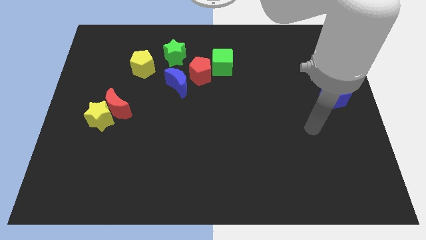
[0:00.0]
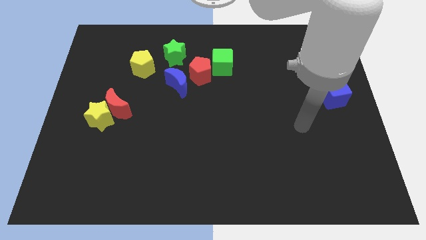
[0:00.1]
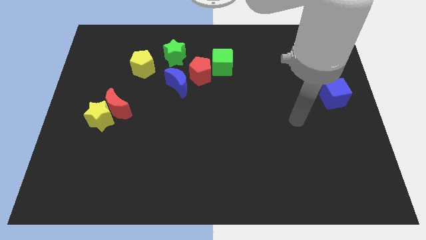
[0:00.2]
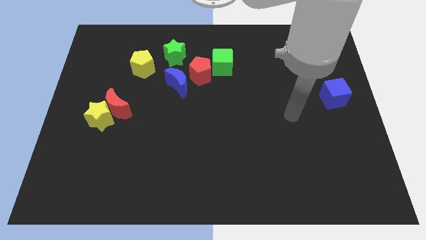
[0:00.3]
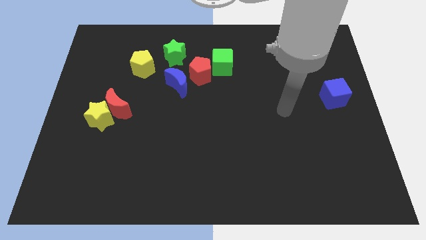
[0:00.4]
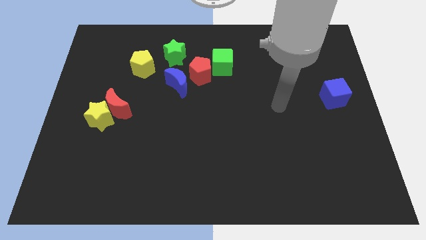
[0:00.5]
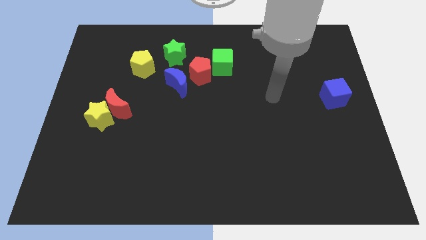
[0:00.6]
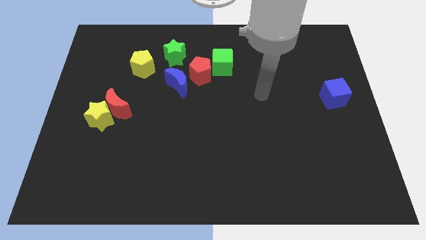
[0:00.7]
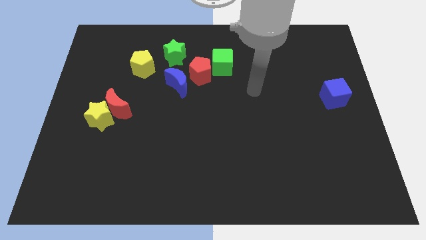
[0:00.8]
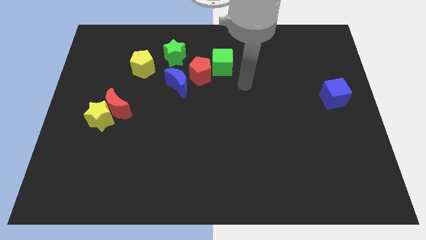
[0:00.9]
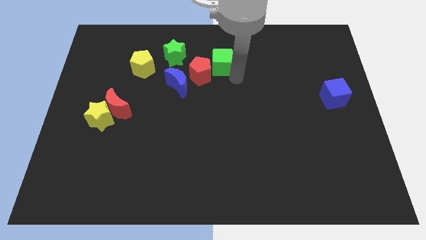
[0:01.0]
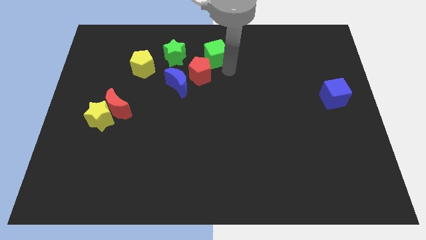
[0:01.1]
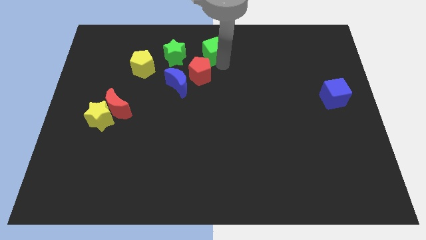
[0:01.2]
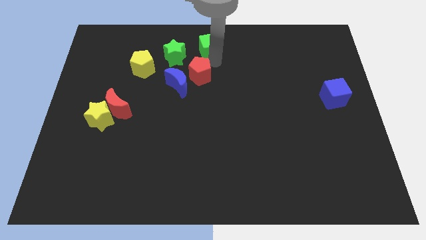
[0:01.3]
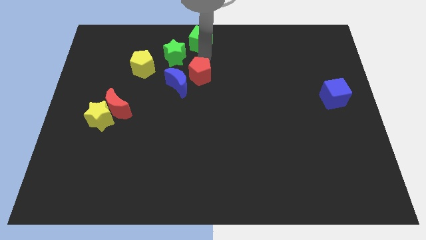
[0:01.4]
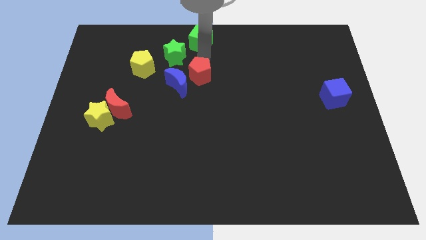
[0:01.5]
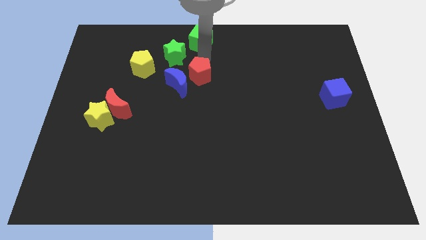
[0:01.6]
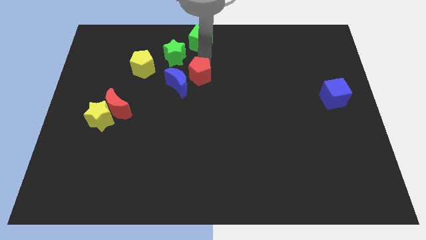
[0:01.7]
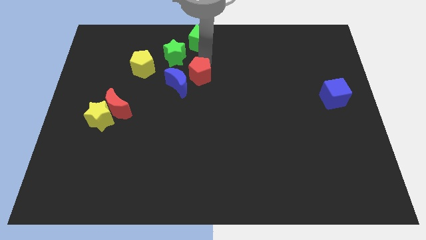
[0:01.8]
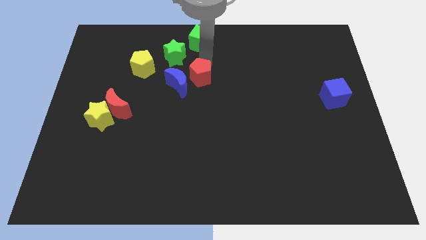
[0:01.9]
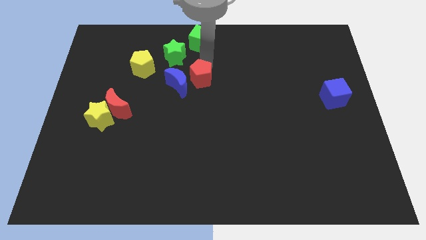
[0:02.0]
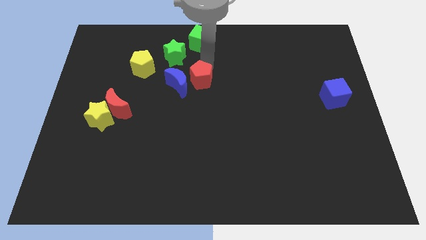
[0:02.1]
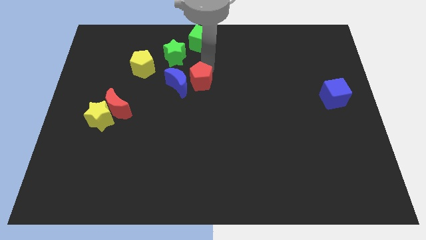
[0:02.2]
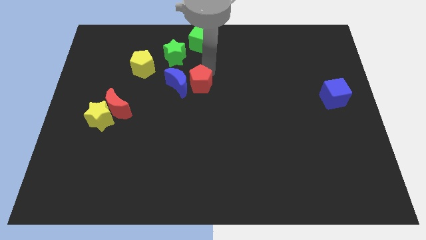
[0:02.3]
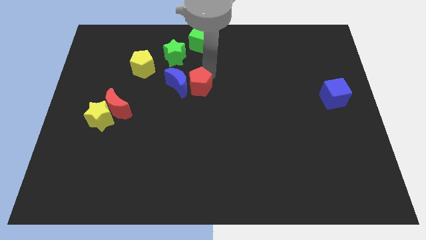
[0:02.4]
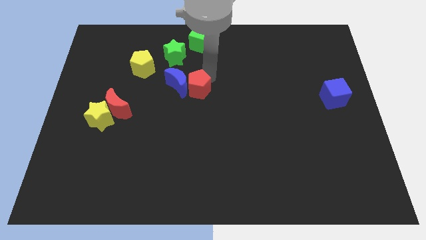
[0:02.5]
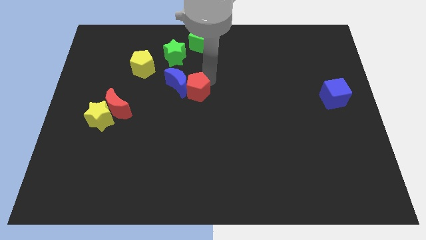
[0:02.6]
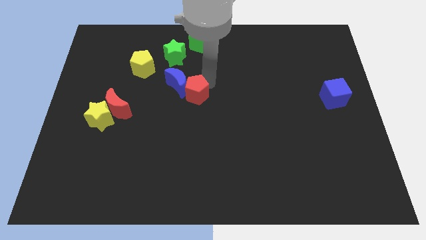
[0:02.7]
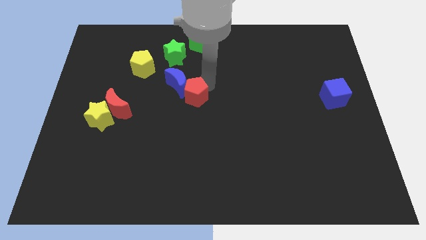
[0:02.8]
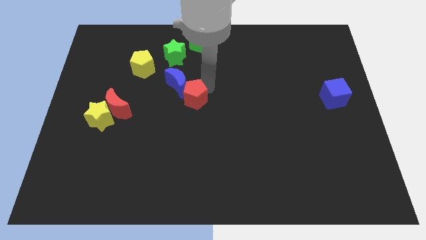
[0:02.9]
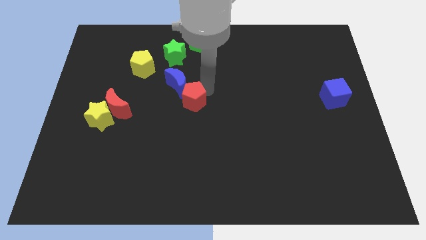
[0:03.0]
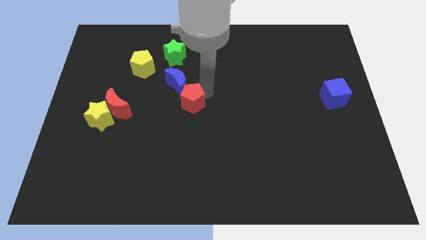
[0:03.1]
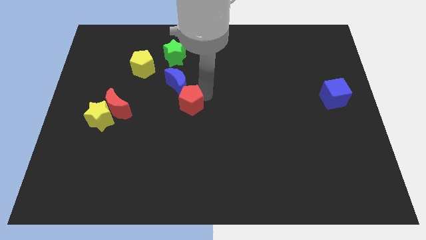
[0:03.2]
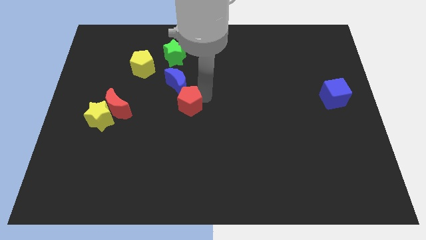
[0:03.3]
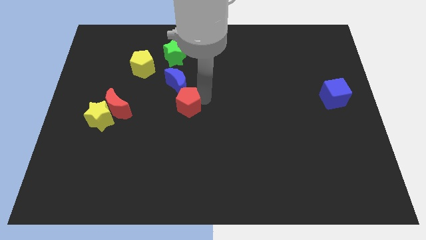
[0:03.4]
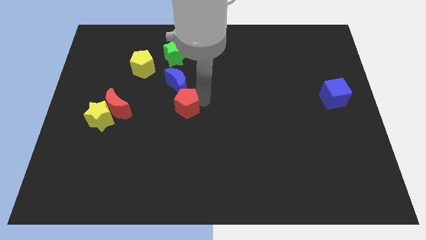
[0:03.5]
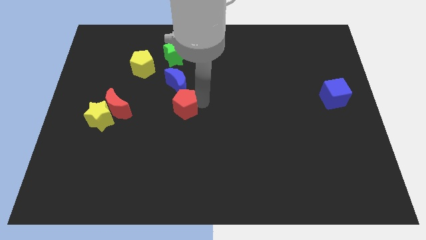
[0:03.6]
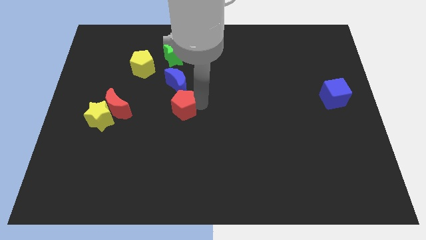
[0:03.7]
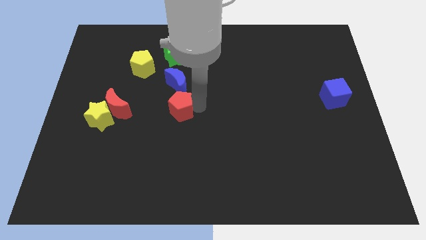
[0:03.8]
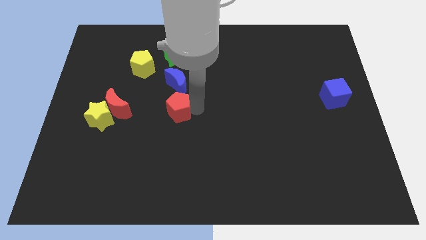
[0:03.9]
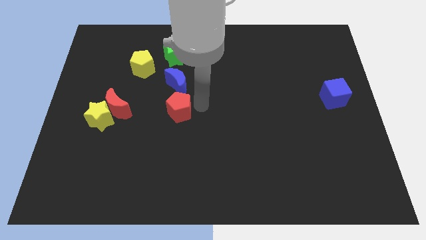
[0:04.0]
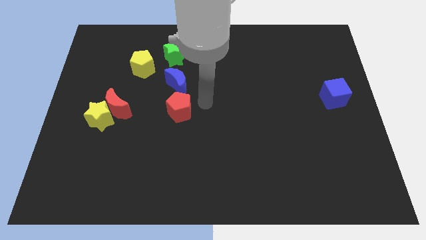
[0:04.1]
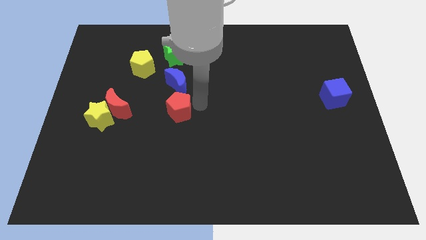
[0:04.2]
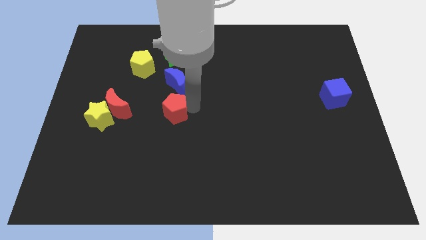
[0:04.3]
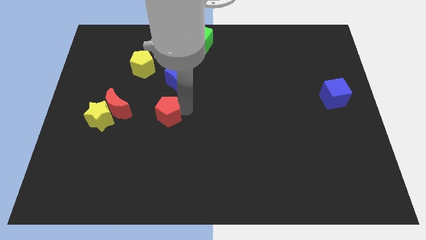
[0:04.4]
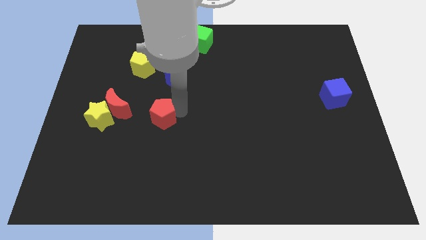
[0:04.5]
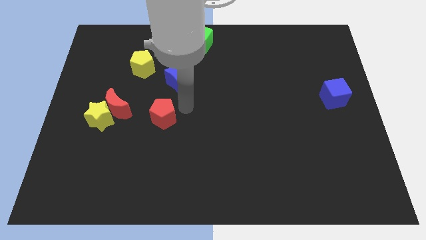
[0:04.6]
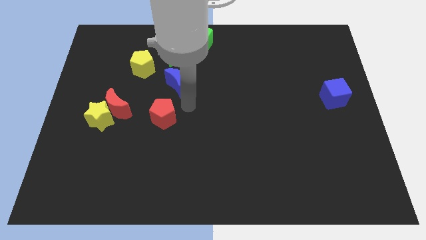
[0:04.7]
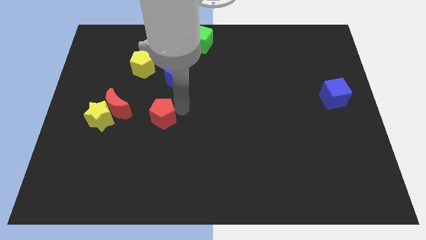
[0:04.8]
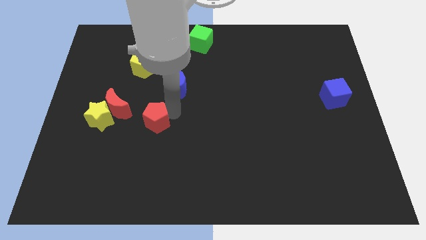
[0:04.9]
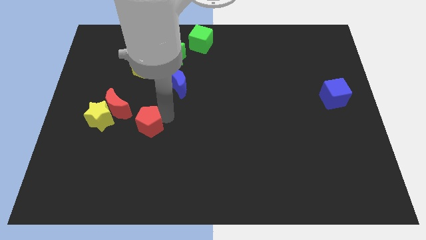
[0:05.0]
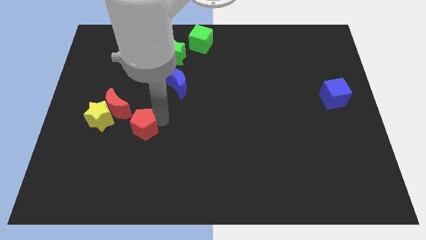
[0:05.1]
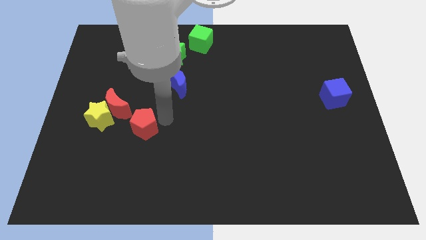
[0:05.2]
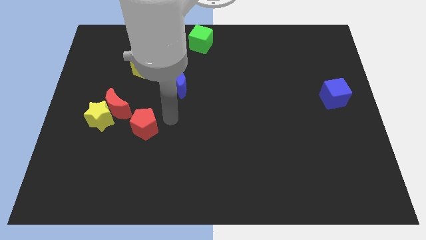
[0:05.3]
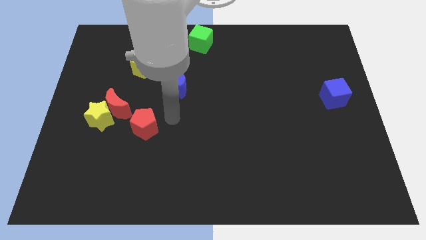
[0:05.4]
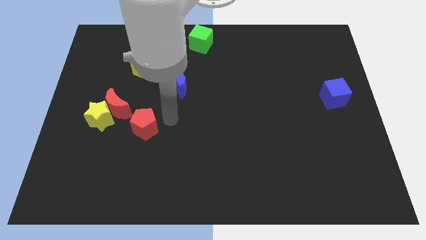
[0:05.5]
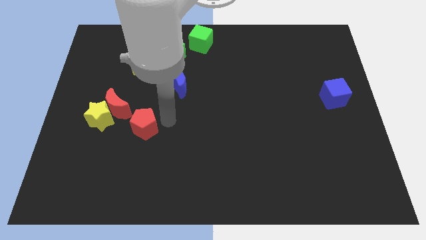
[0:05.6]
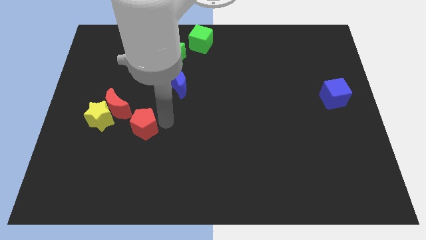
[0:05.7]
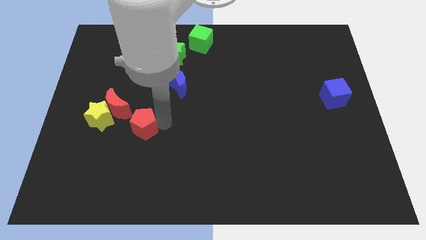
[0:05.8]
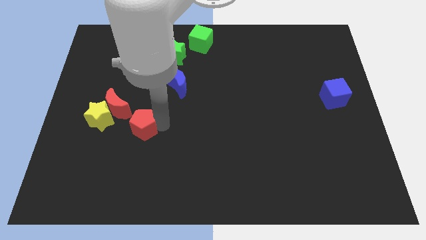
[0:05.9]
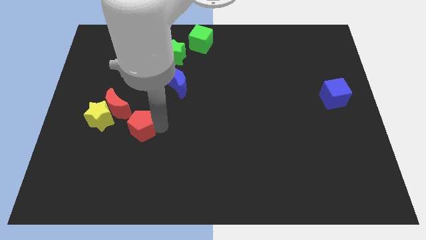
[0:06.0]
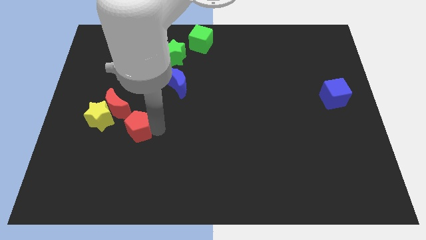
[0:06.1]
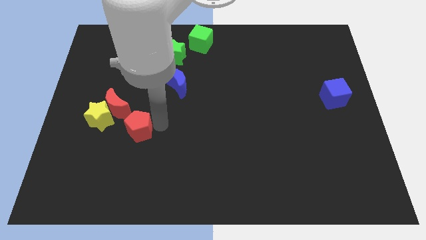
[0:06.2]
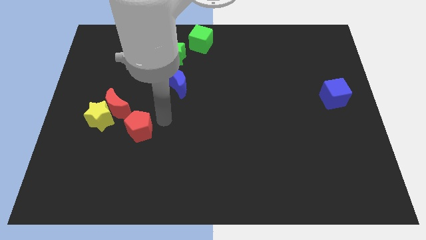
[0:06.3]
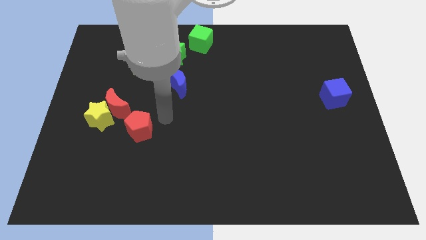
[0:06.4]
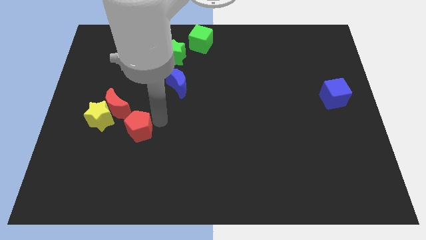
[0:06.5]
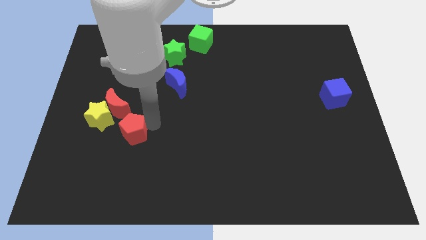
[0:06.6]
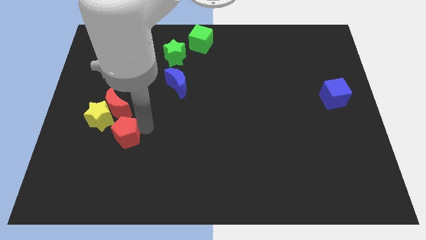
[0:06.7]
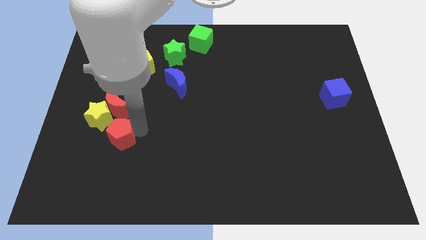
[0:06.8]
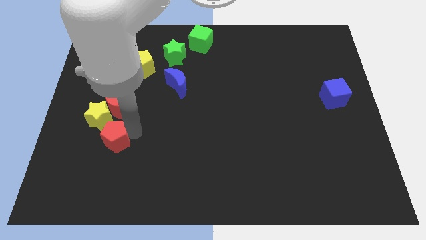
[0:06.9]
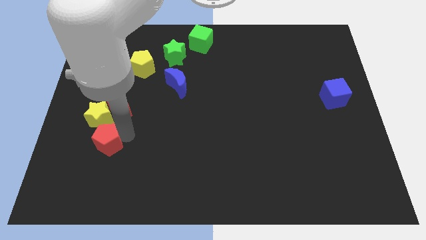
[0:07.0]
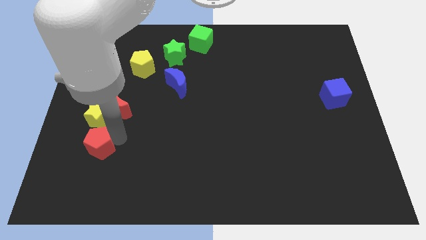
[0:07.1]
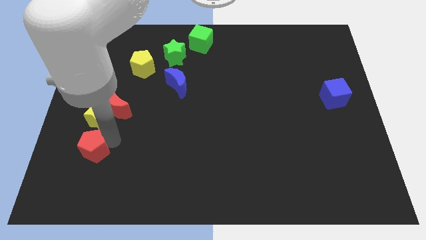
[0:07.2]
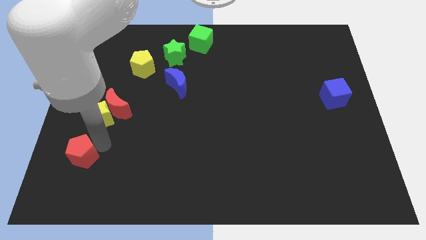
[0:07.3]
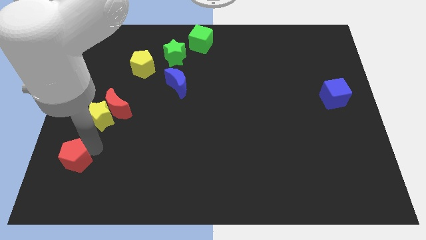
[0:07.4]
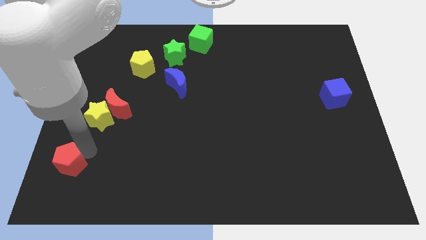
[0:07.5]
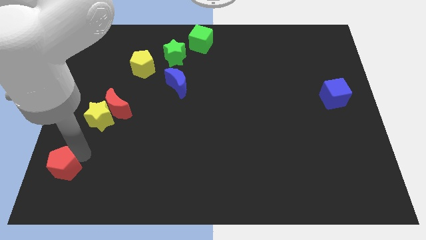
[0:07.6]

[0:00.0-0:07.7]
push the red pentagon to the lower left corner
